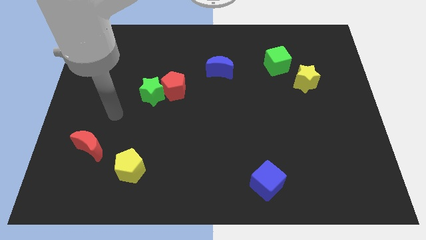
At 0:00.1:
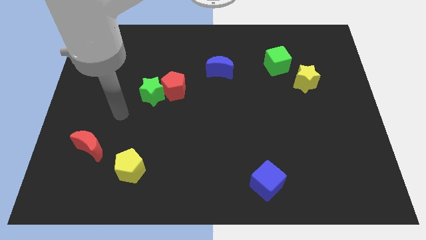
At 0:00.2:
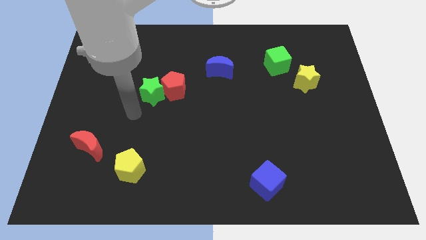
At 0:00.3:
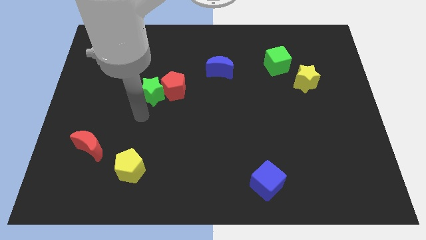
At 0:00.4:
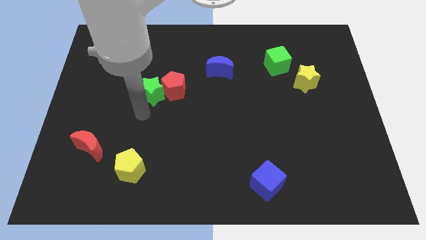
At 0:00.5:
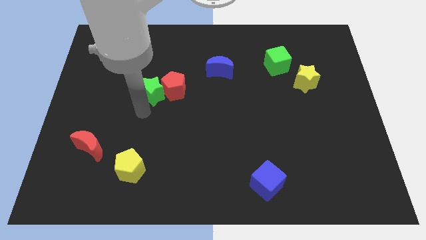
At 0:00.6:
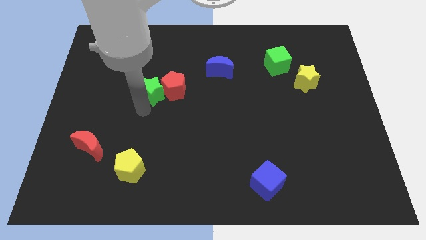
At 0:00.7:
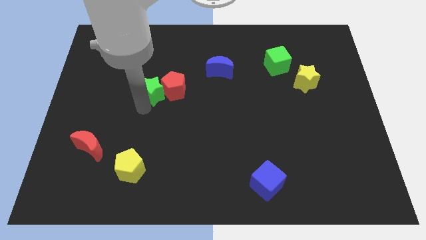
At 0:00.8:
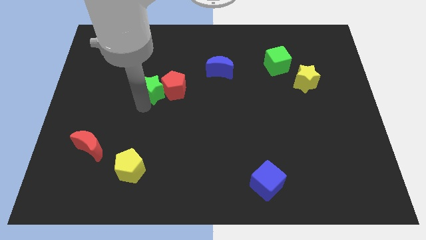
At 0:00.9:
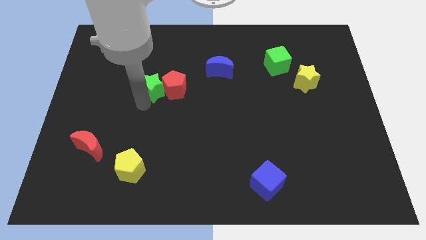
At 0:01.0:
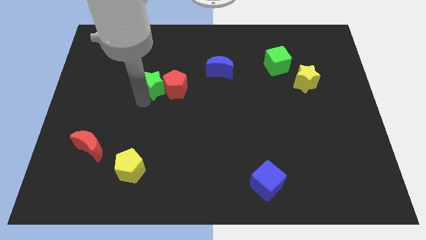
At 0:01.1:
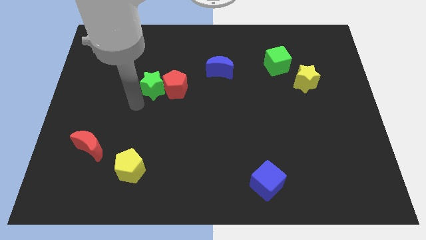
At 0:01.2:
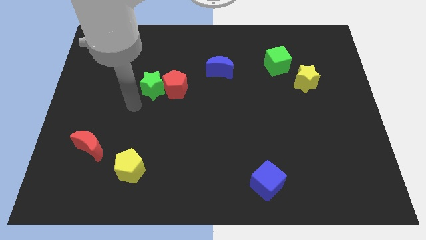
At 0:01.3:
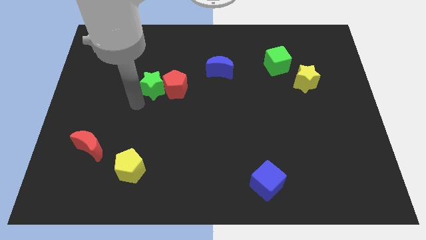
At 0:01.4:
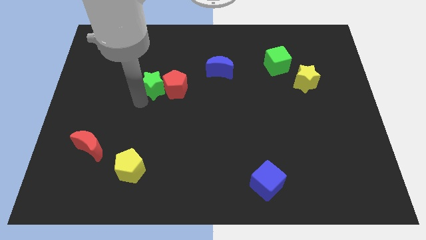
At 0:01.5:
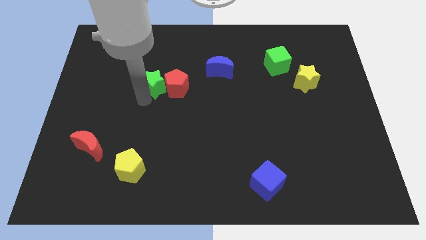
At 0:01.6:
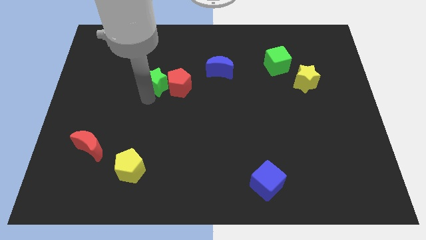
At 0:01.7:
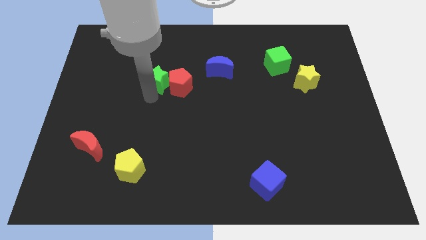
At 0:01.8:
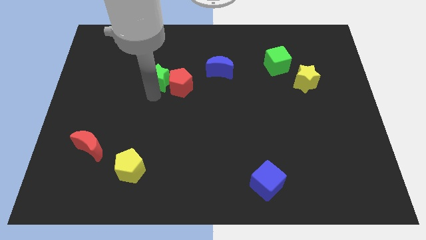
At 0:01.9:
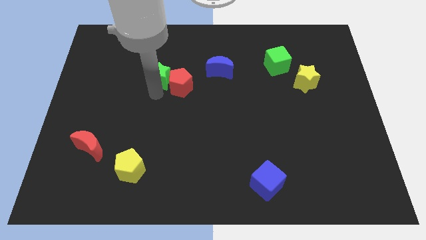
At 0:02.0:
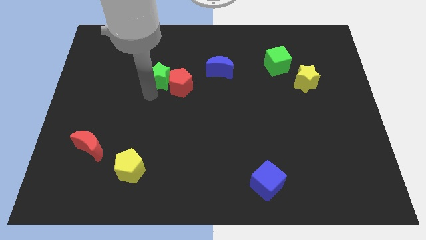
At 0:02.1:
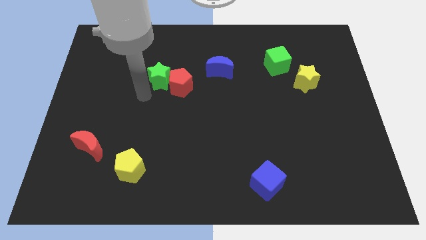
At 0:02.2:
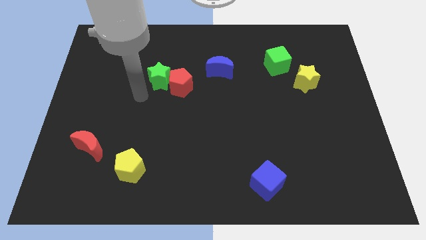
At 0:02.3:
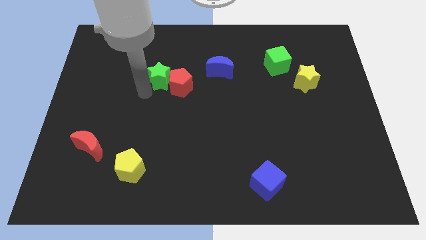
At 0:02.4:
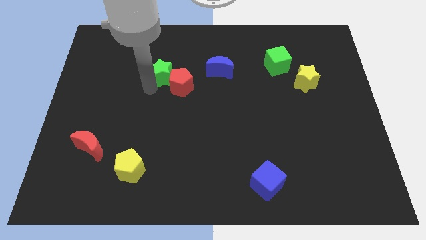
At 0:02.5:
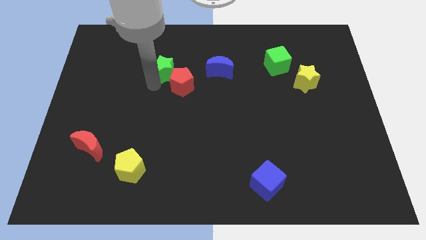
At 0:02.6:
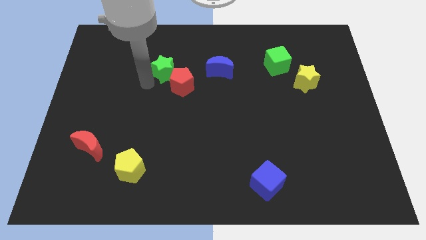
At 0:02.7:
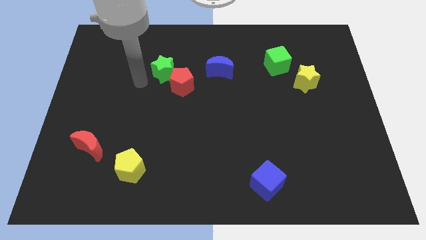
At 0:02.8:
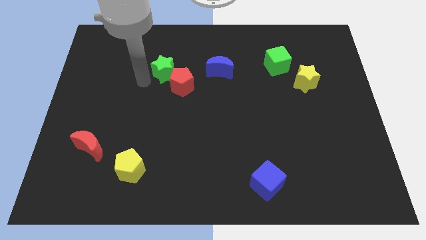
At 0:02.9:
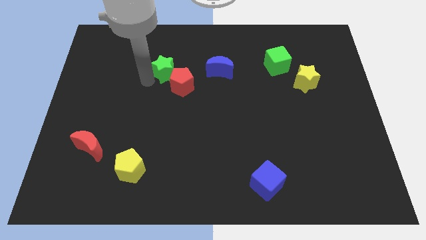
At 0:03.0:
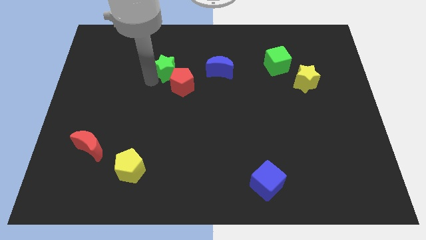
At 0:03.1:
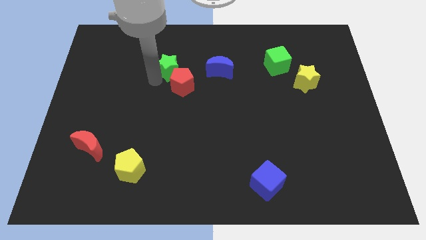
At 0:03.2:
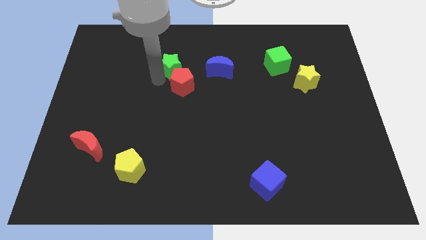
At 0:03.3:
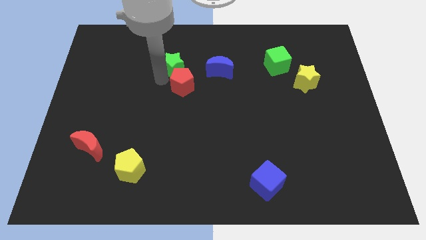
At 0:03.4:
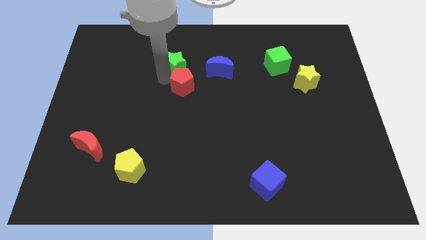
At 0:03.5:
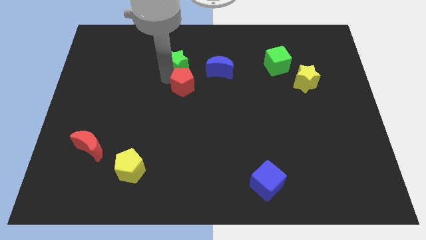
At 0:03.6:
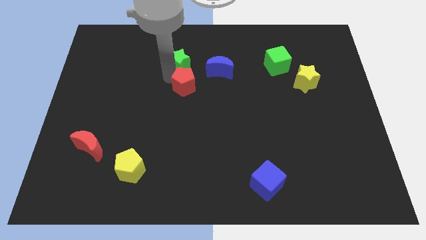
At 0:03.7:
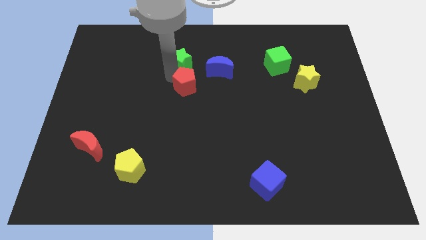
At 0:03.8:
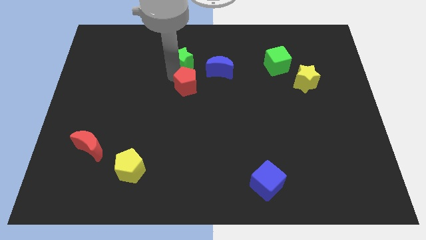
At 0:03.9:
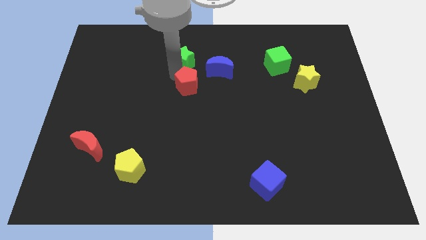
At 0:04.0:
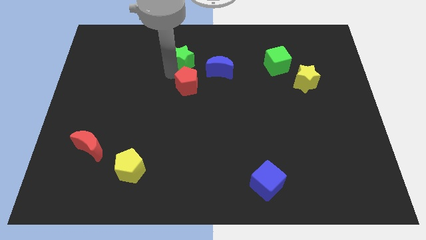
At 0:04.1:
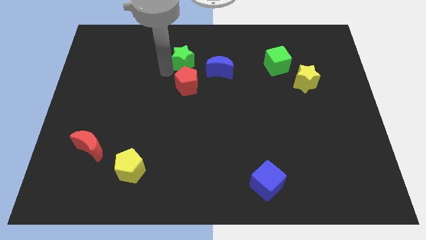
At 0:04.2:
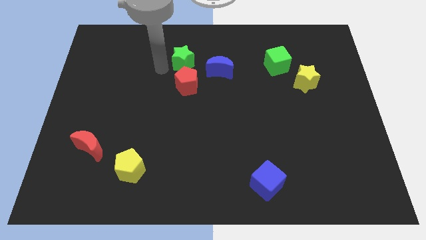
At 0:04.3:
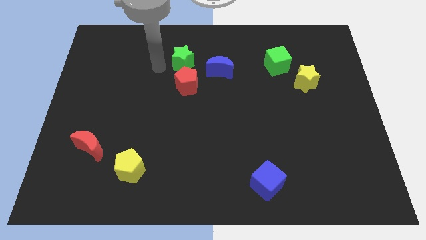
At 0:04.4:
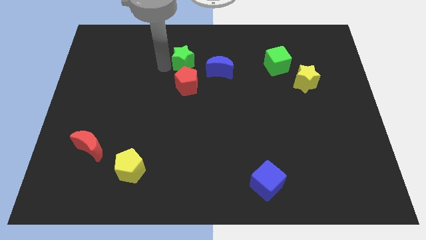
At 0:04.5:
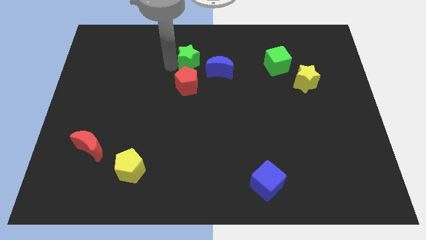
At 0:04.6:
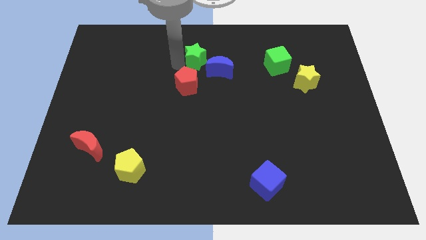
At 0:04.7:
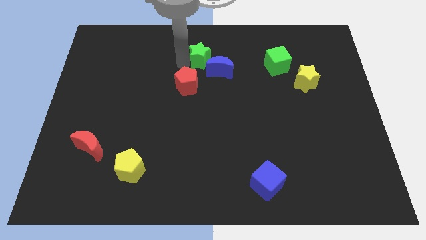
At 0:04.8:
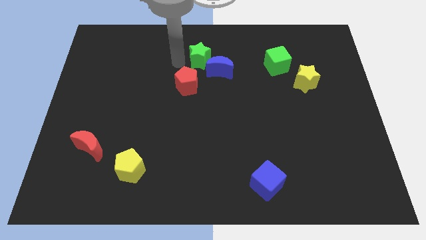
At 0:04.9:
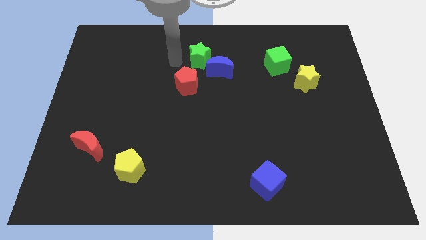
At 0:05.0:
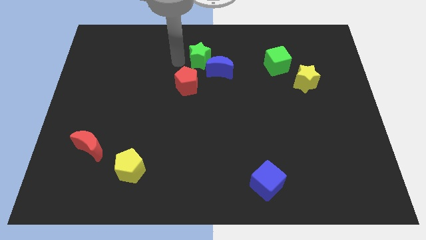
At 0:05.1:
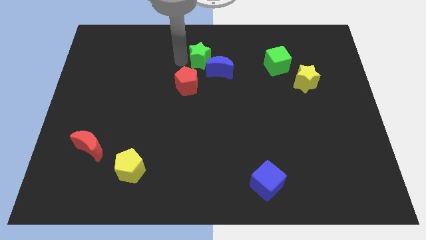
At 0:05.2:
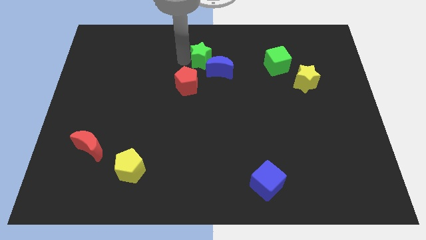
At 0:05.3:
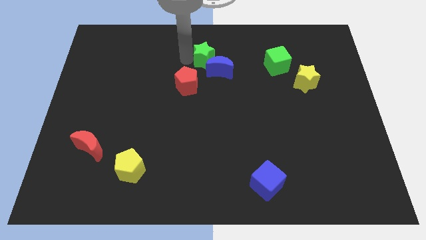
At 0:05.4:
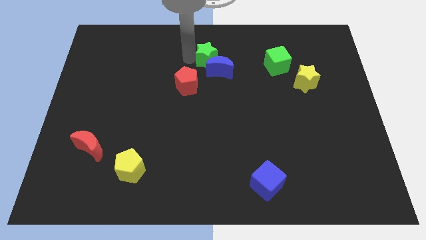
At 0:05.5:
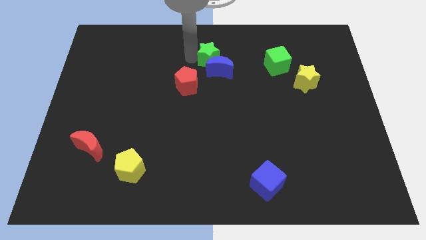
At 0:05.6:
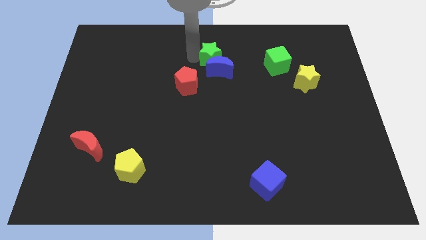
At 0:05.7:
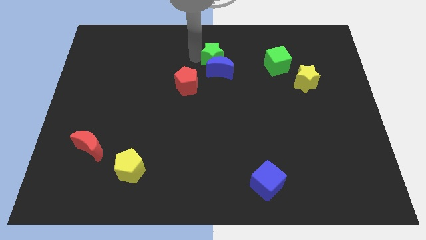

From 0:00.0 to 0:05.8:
slide the green star diagonally up and to the right of the blue moon
